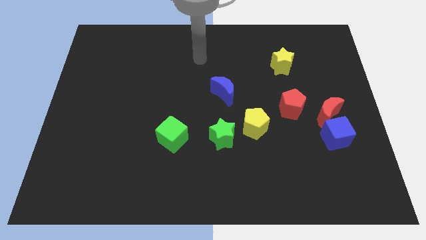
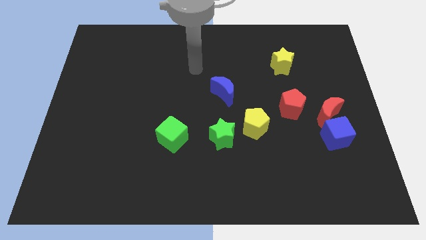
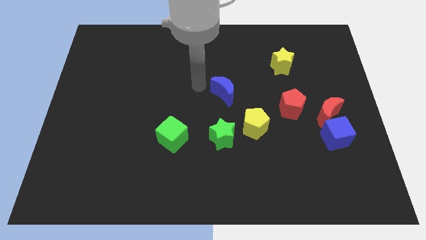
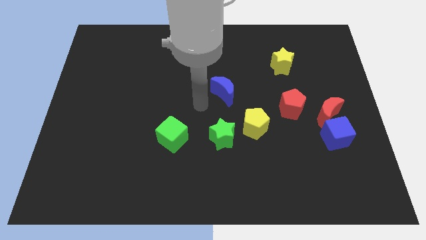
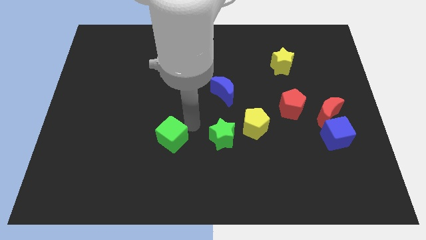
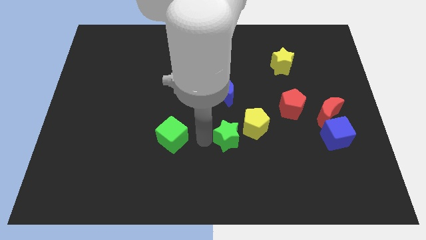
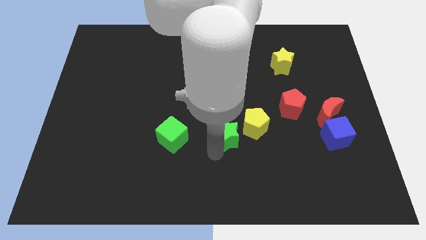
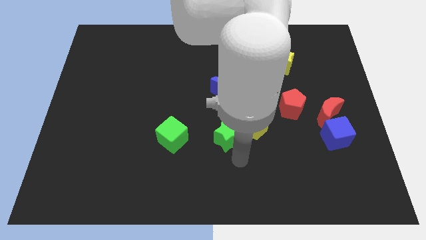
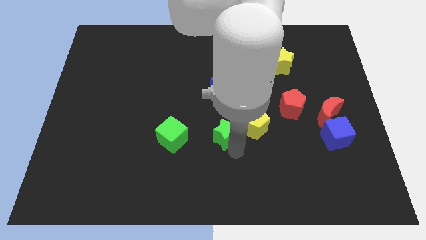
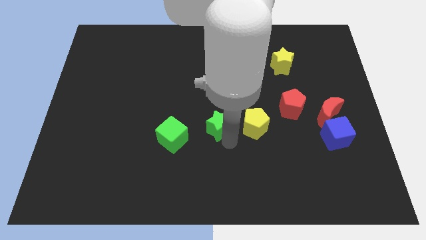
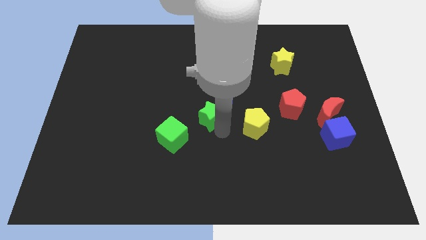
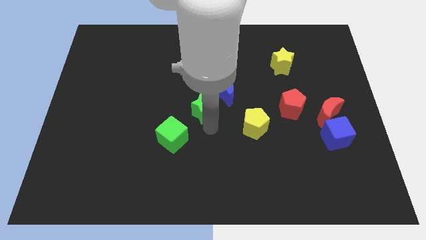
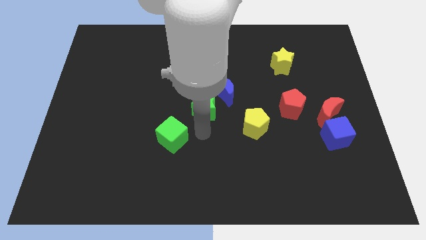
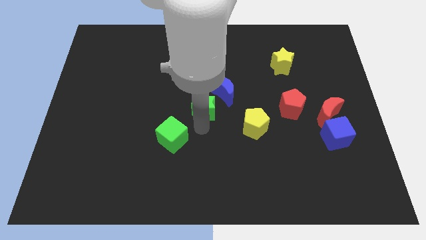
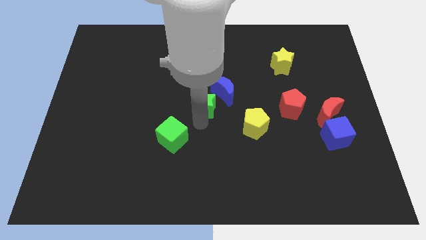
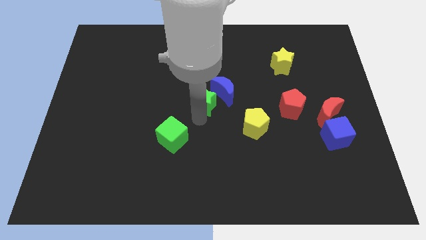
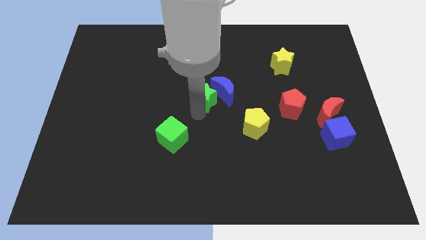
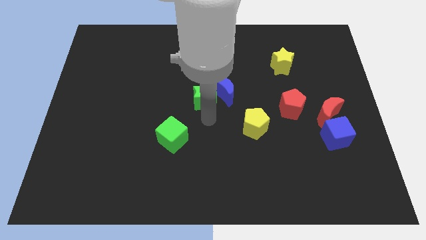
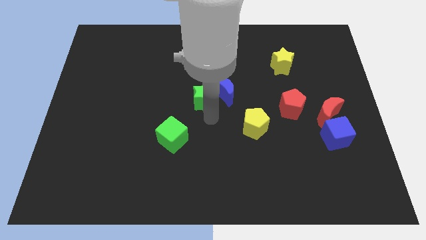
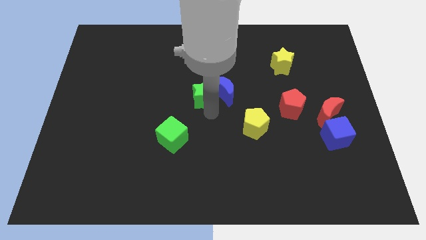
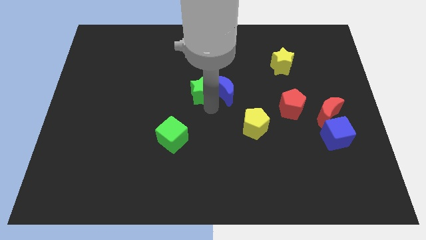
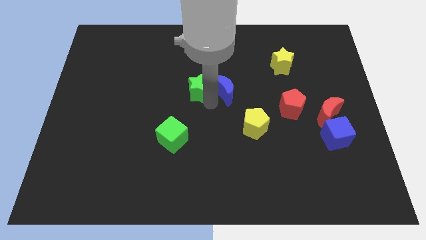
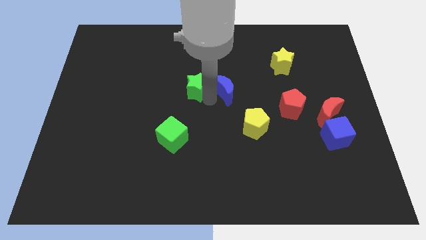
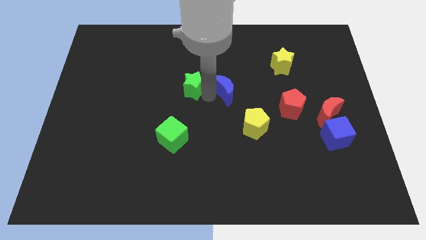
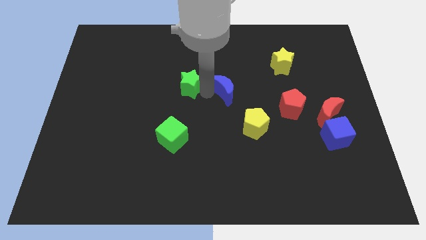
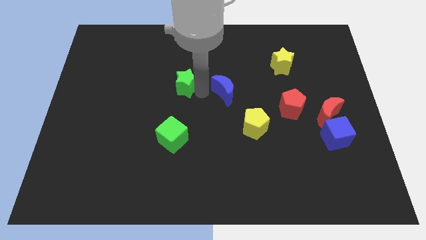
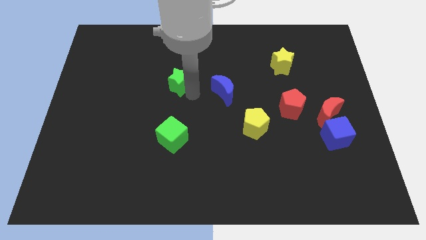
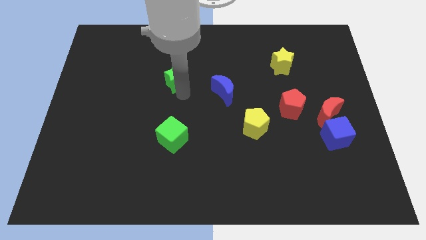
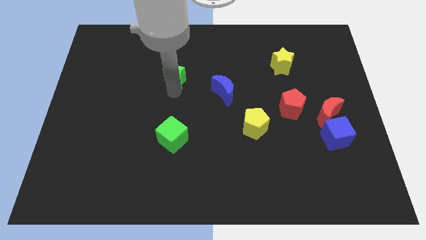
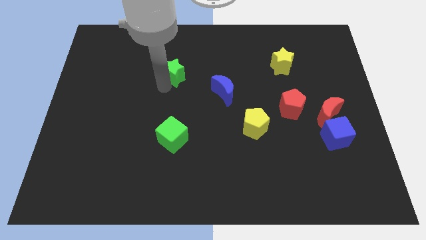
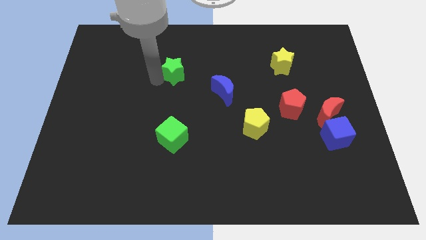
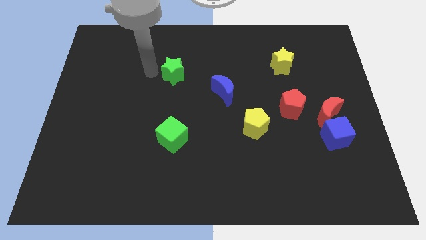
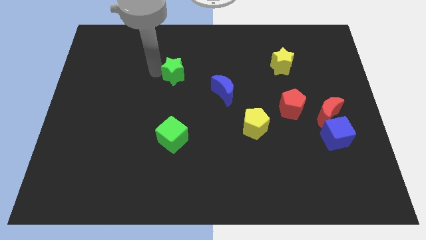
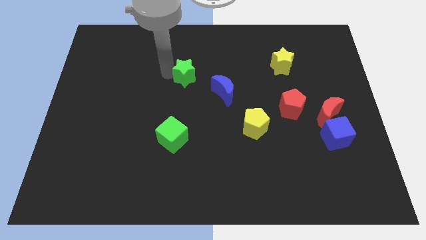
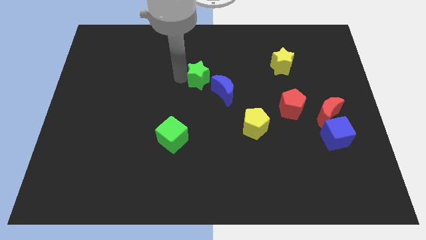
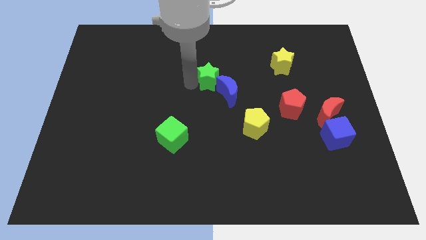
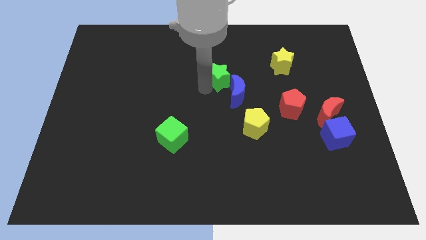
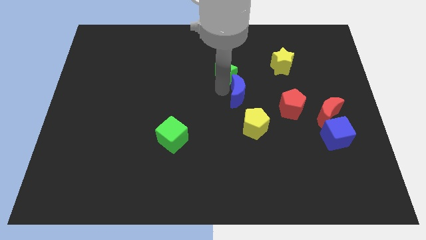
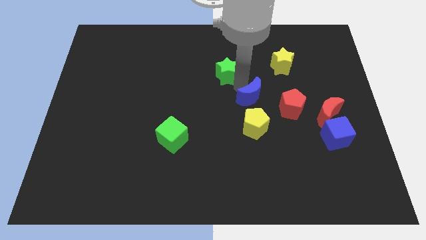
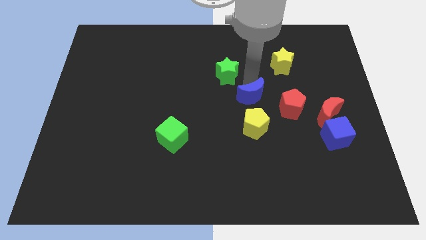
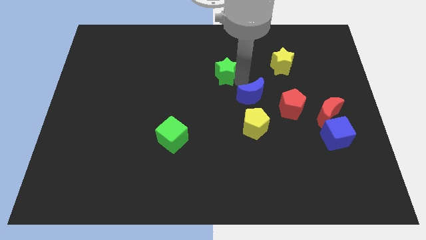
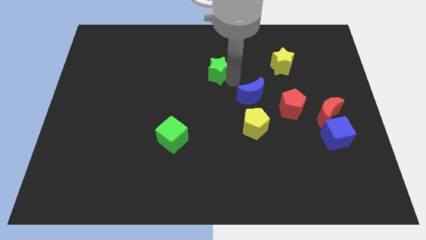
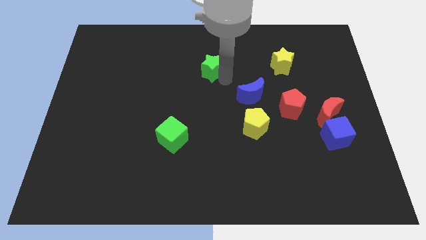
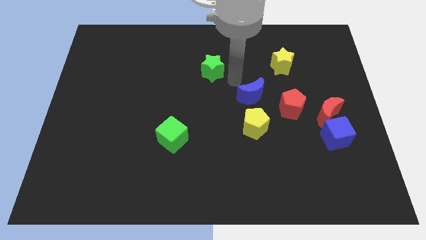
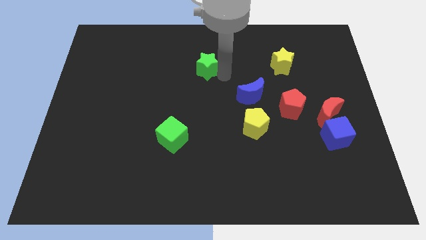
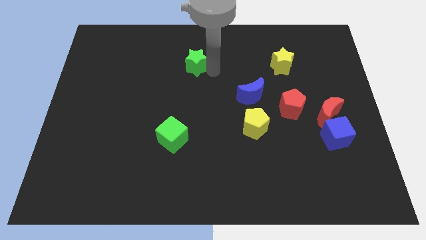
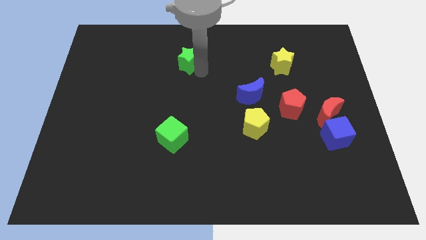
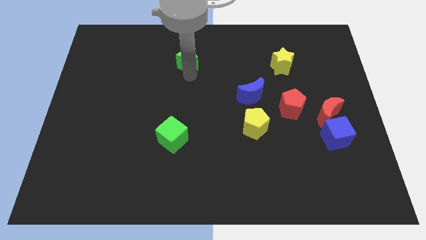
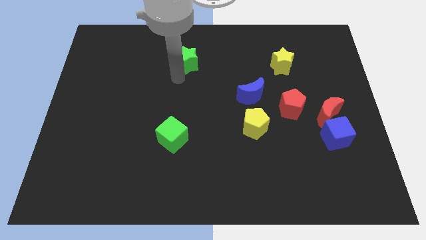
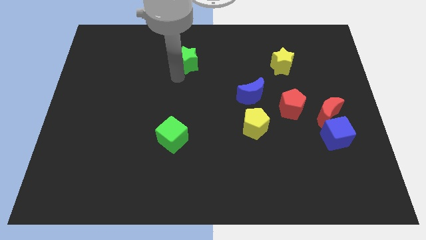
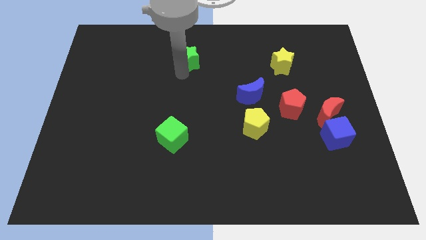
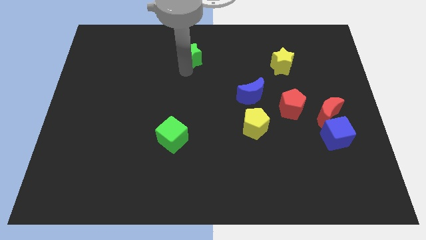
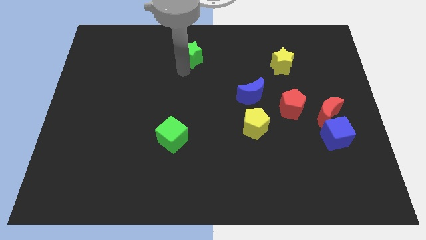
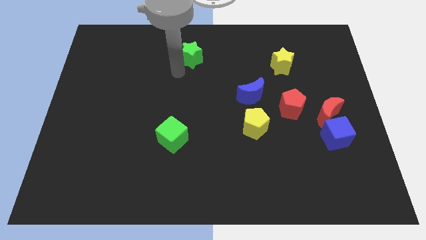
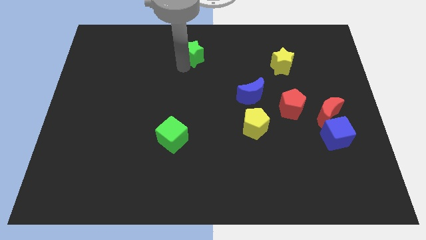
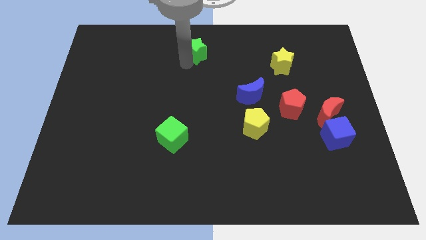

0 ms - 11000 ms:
put the green star to the top

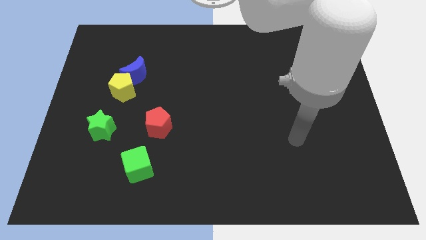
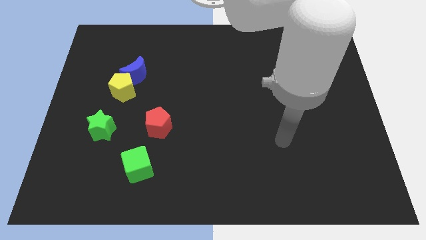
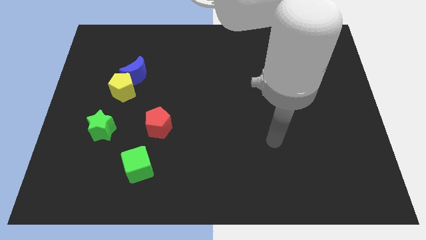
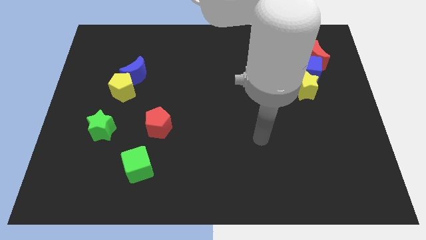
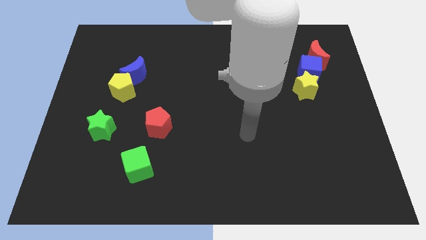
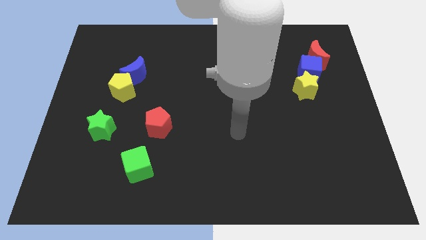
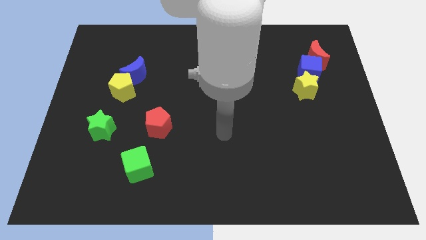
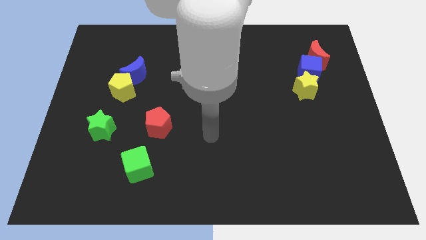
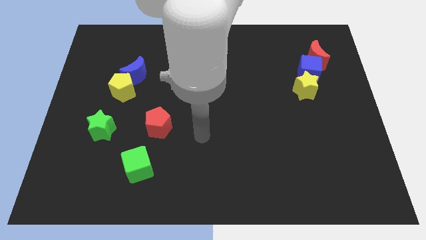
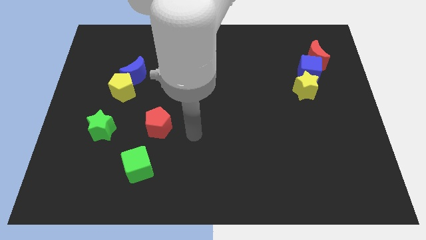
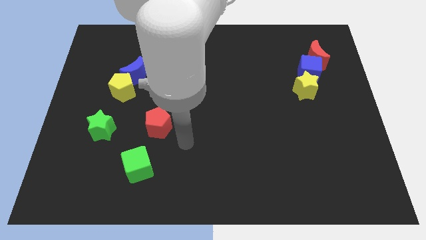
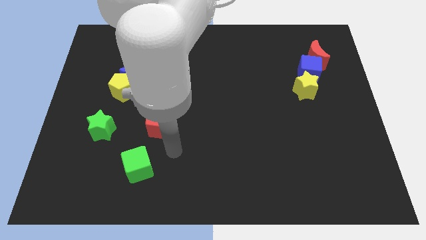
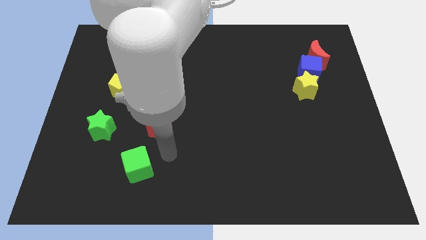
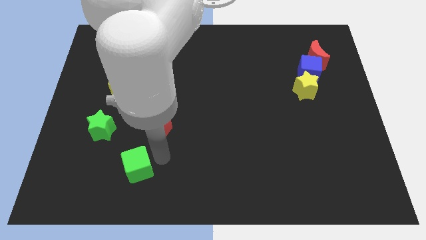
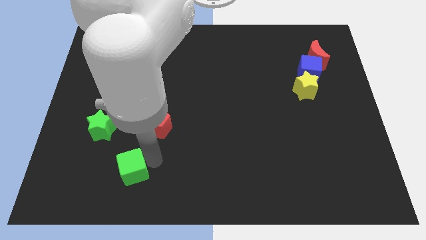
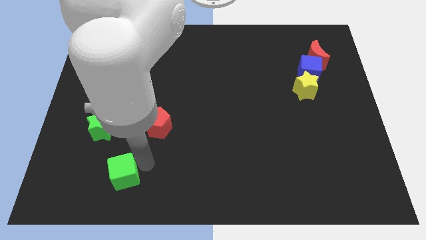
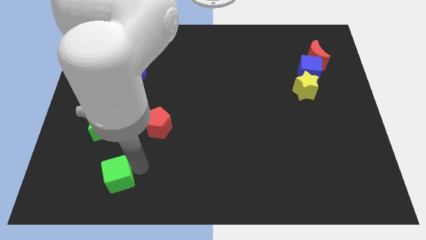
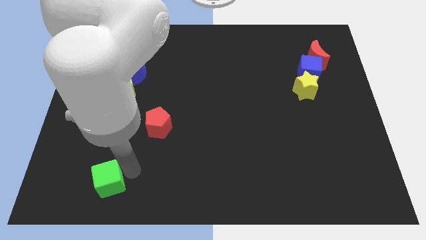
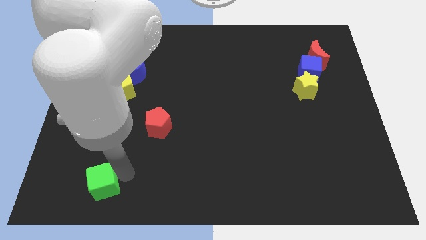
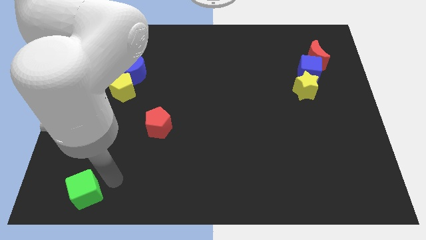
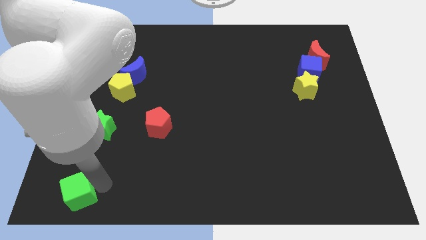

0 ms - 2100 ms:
slide the green cube to the bottom left corner
